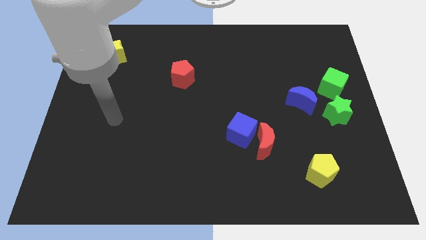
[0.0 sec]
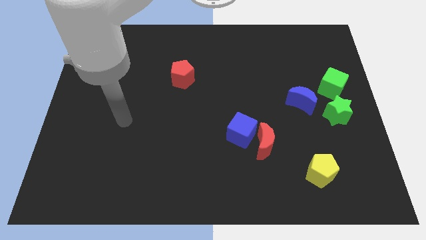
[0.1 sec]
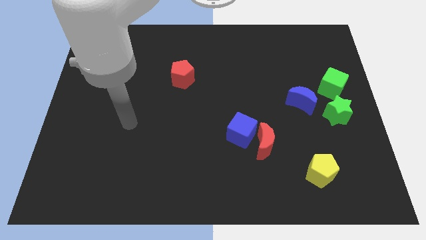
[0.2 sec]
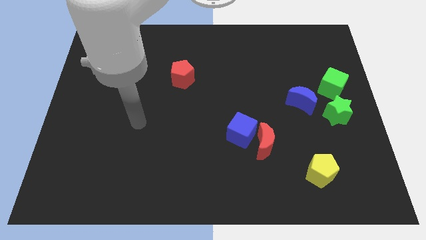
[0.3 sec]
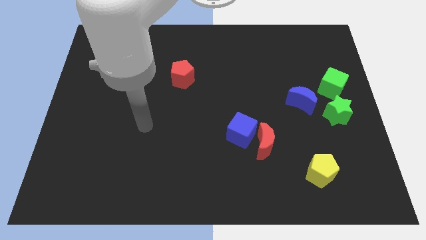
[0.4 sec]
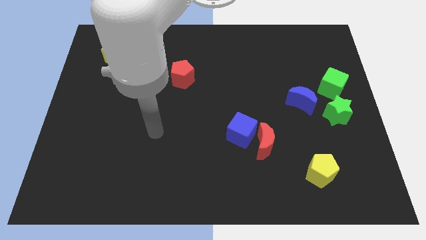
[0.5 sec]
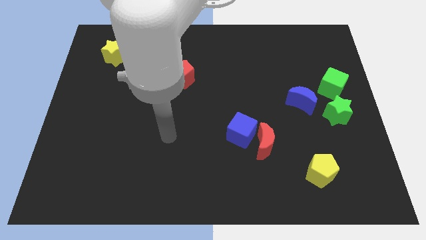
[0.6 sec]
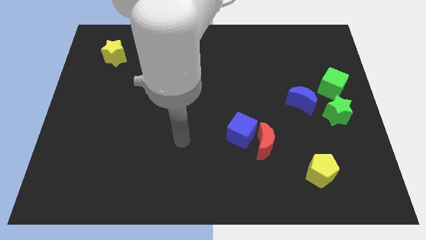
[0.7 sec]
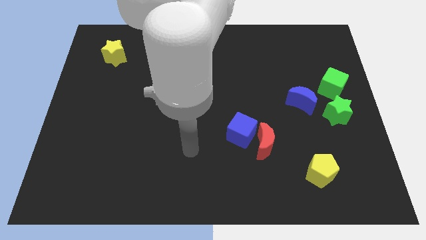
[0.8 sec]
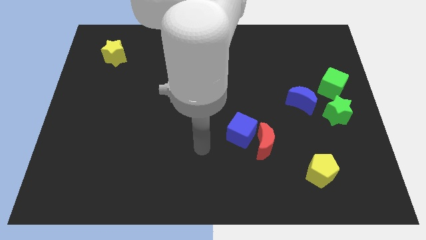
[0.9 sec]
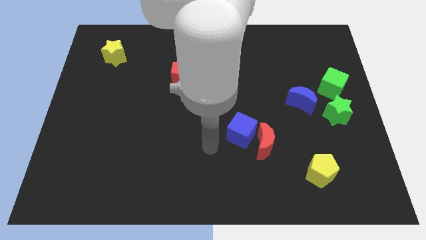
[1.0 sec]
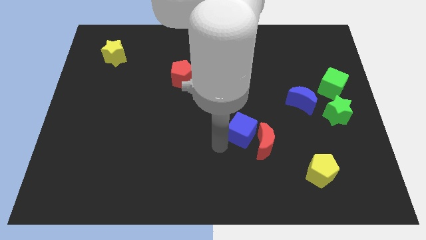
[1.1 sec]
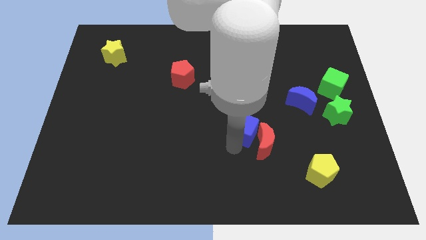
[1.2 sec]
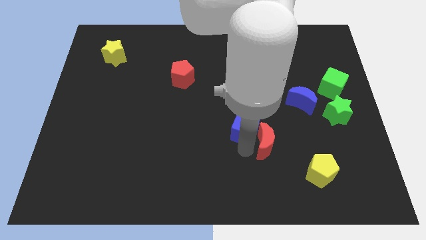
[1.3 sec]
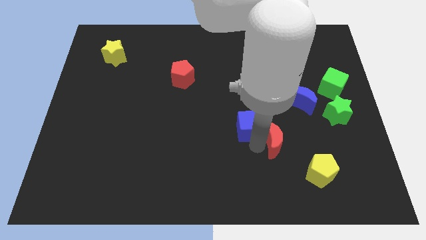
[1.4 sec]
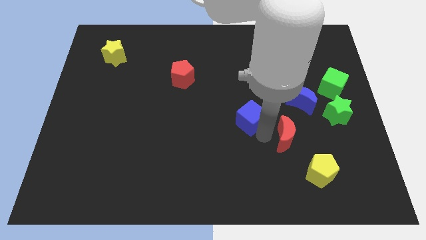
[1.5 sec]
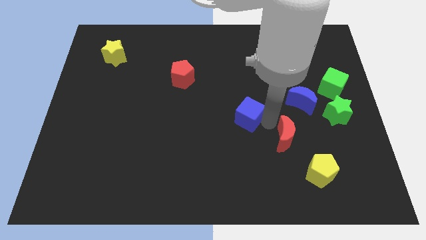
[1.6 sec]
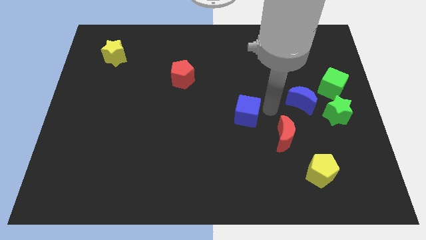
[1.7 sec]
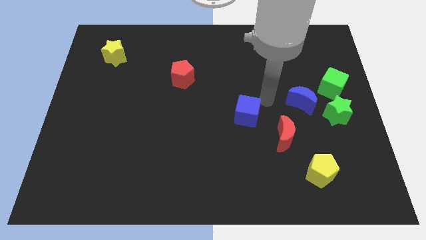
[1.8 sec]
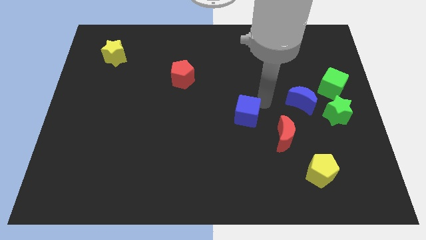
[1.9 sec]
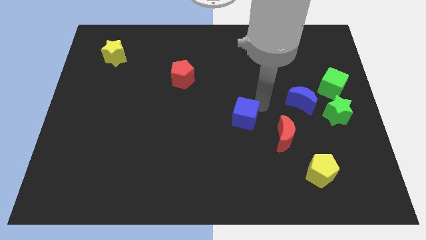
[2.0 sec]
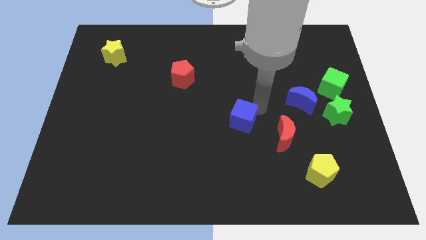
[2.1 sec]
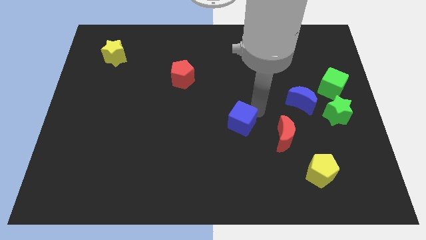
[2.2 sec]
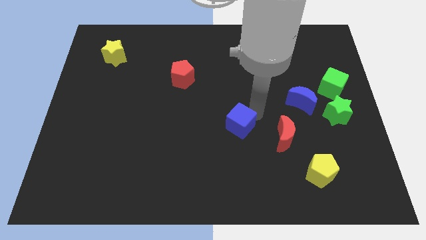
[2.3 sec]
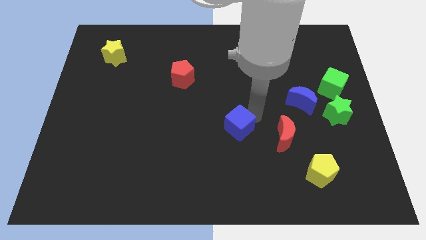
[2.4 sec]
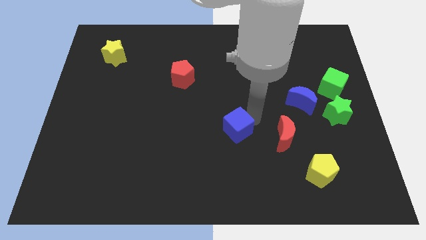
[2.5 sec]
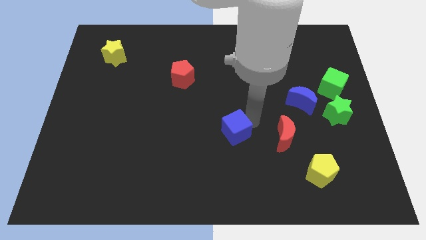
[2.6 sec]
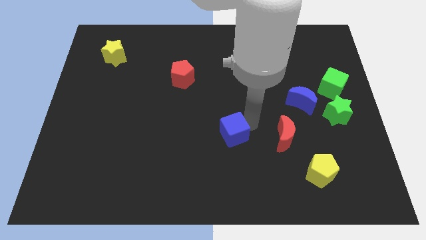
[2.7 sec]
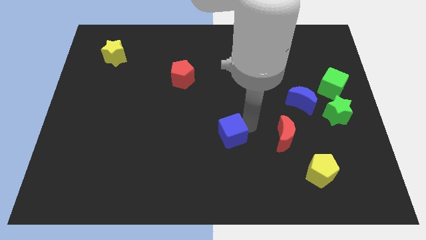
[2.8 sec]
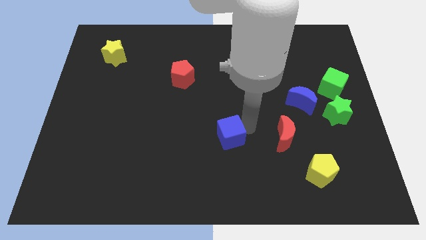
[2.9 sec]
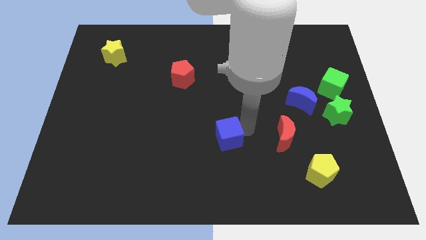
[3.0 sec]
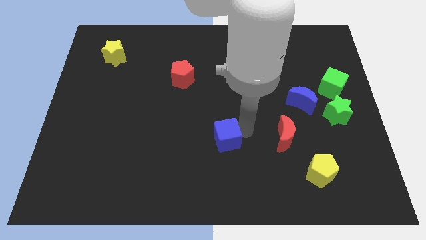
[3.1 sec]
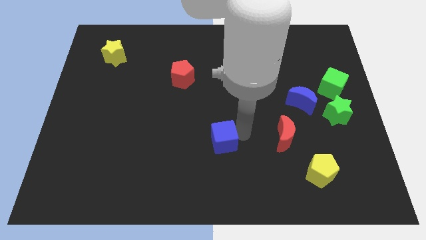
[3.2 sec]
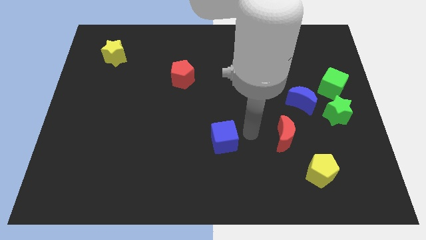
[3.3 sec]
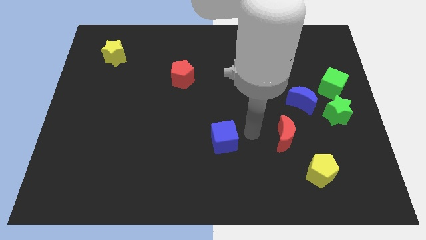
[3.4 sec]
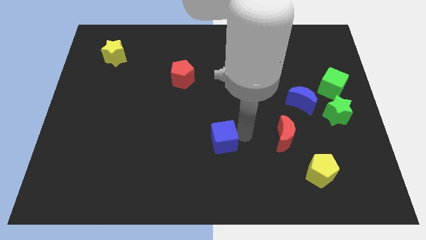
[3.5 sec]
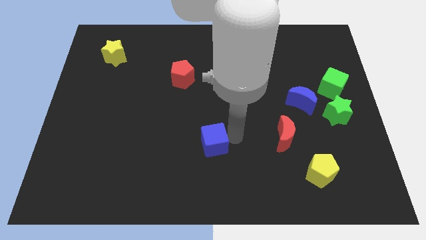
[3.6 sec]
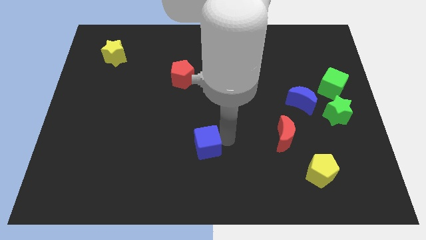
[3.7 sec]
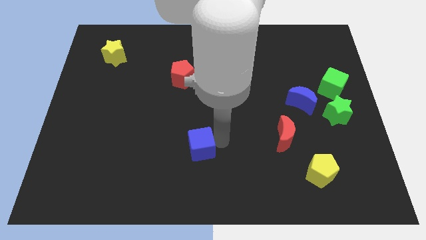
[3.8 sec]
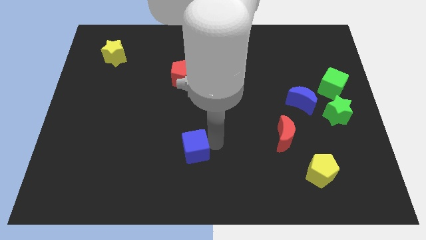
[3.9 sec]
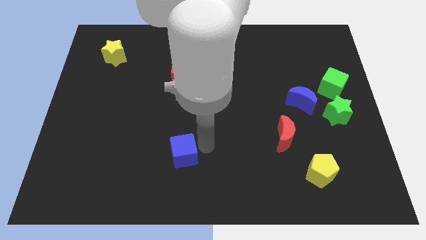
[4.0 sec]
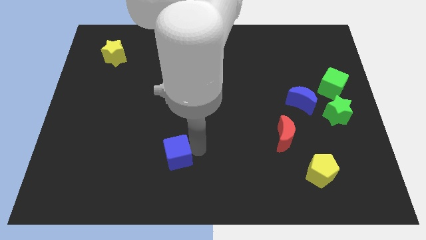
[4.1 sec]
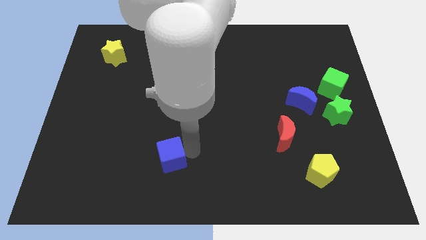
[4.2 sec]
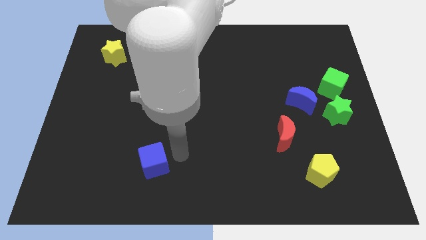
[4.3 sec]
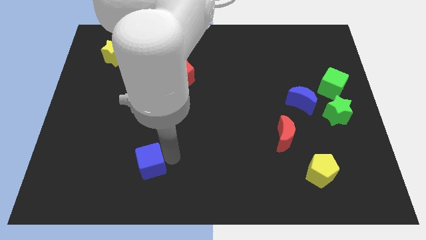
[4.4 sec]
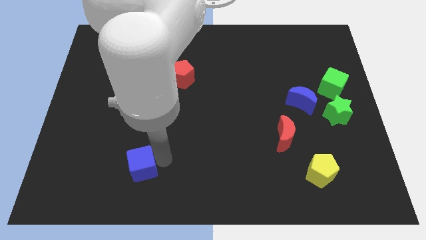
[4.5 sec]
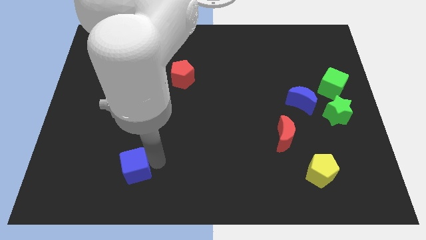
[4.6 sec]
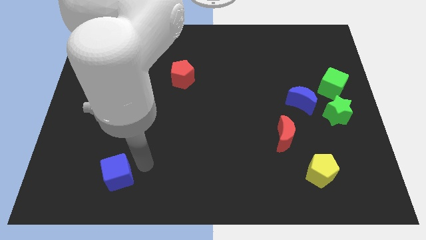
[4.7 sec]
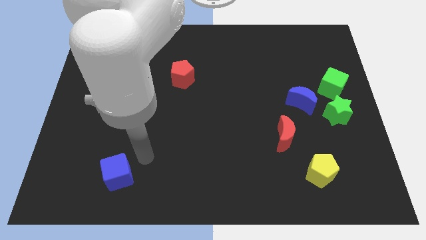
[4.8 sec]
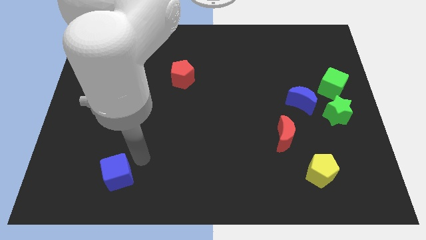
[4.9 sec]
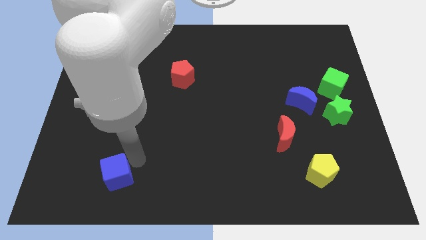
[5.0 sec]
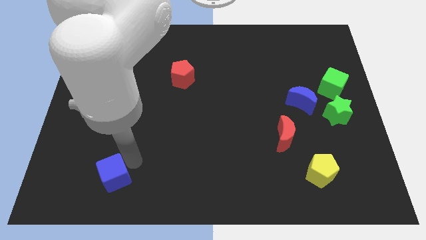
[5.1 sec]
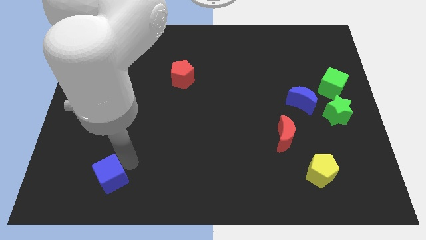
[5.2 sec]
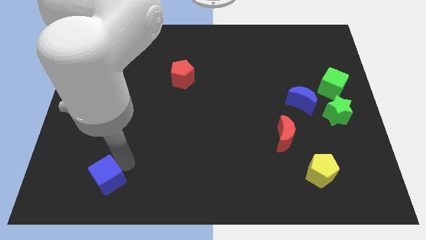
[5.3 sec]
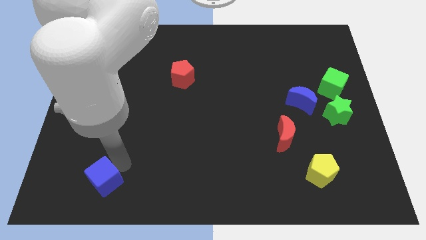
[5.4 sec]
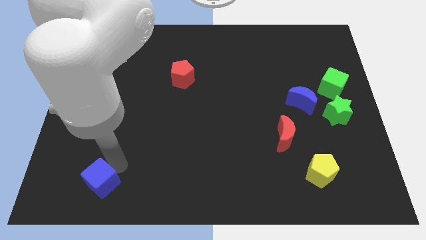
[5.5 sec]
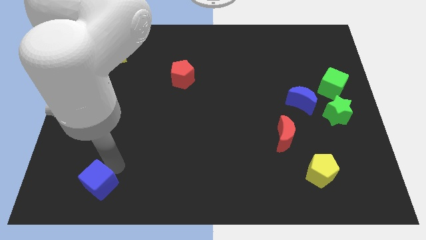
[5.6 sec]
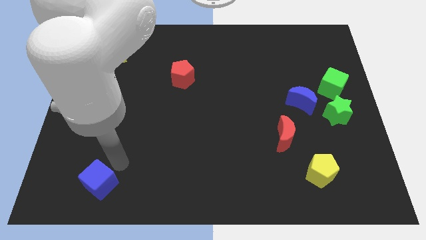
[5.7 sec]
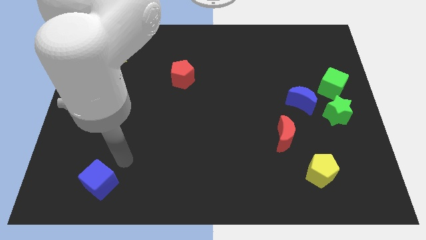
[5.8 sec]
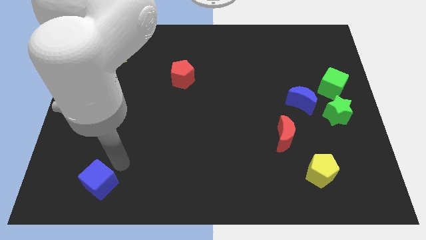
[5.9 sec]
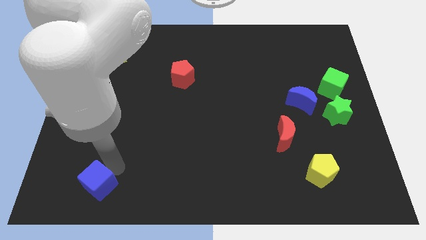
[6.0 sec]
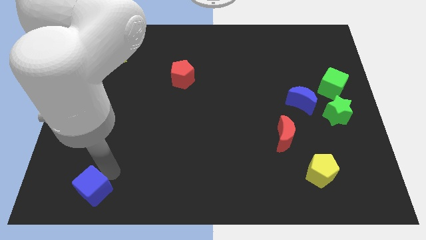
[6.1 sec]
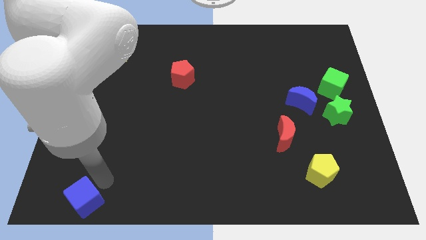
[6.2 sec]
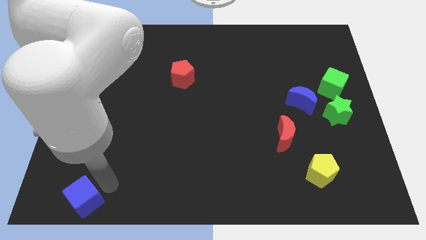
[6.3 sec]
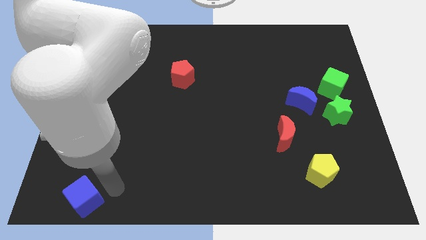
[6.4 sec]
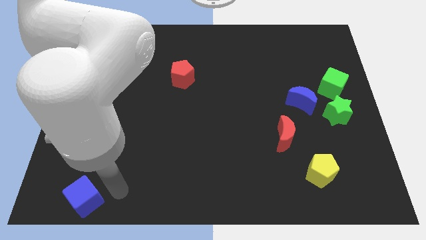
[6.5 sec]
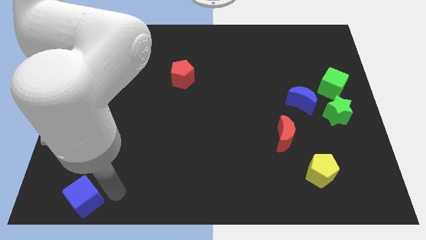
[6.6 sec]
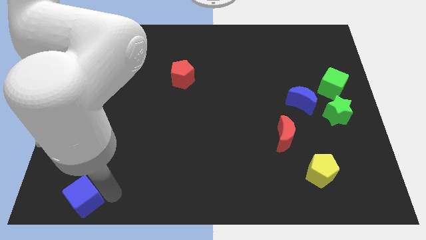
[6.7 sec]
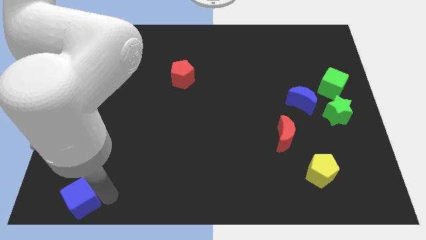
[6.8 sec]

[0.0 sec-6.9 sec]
move the blue cube to the bottom left corner
